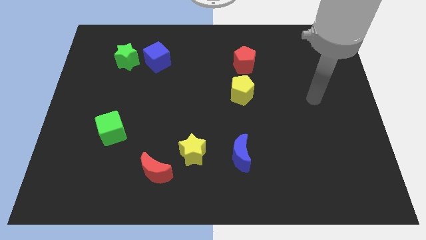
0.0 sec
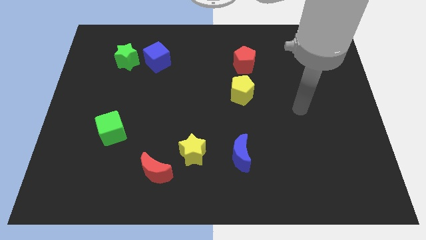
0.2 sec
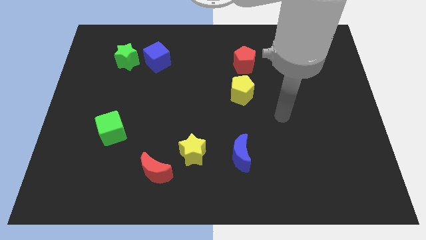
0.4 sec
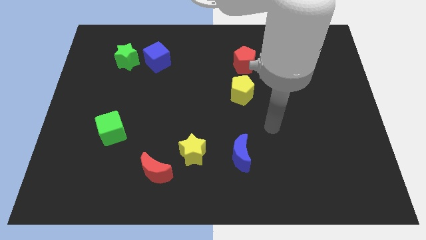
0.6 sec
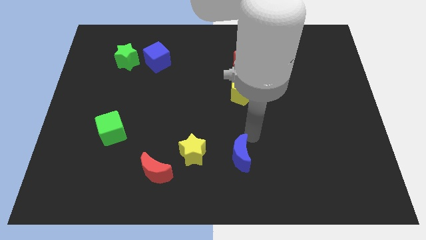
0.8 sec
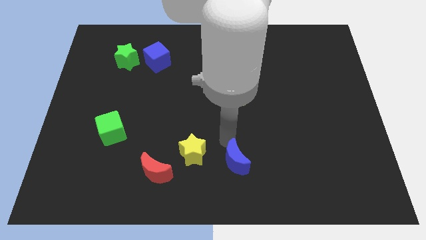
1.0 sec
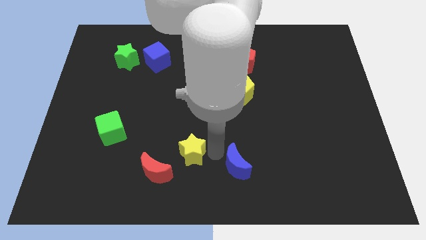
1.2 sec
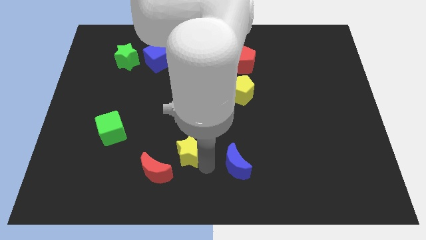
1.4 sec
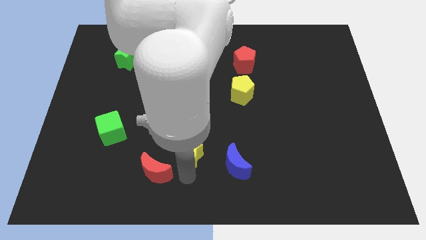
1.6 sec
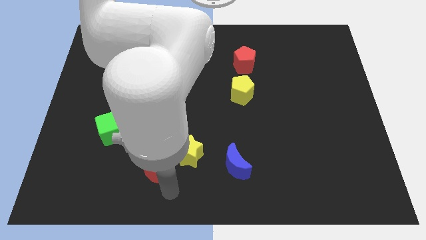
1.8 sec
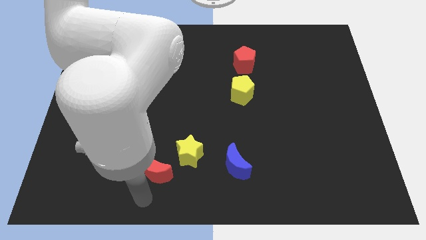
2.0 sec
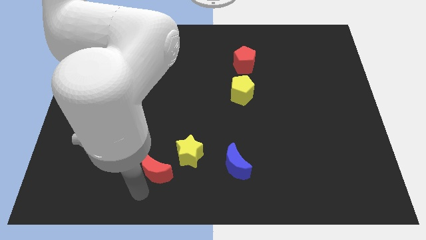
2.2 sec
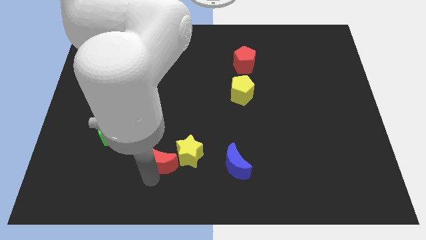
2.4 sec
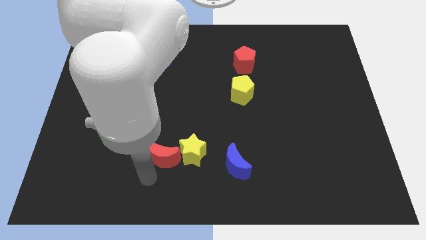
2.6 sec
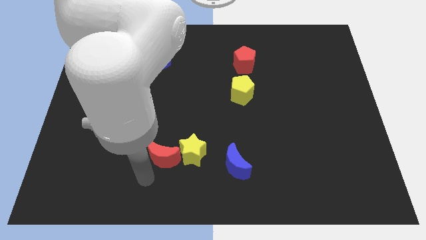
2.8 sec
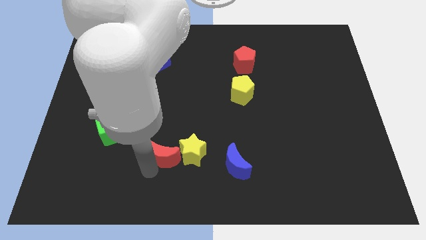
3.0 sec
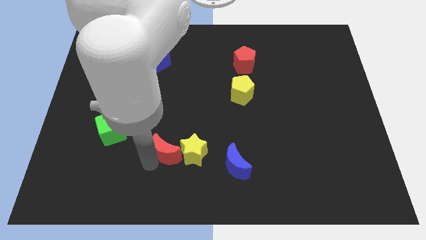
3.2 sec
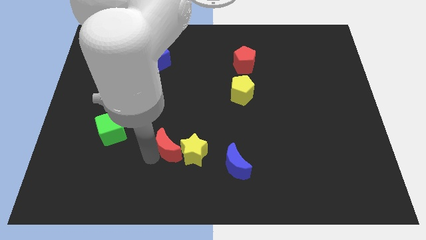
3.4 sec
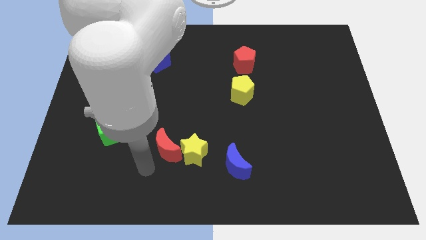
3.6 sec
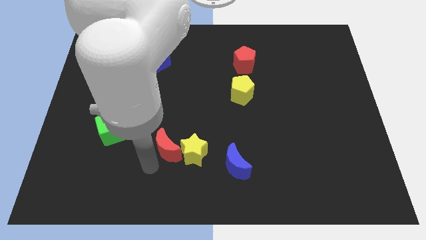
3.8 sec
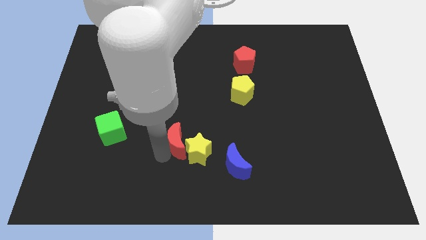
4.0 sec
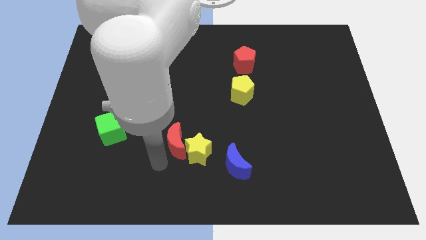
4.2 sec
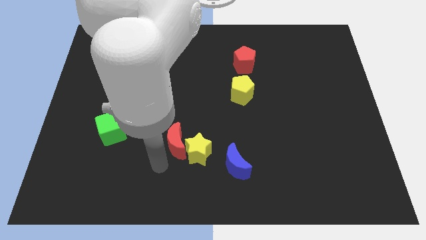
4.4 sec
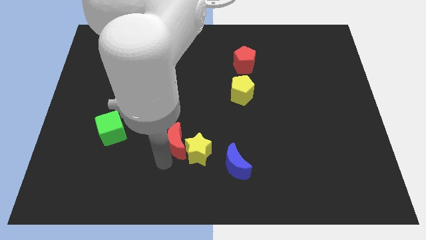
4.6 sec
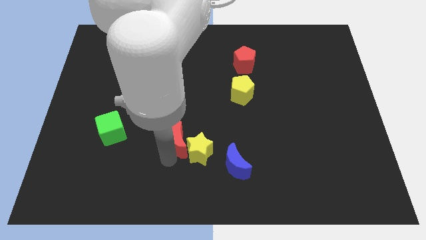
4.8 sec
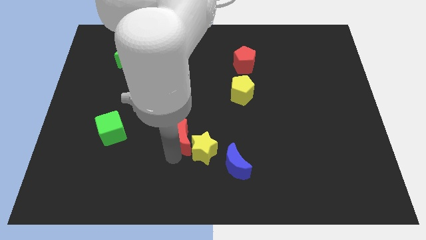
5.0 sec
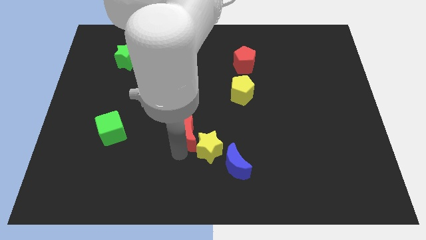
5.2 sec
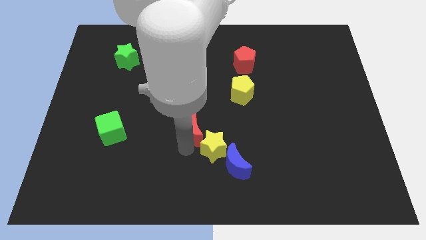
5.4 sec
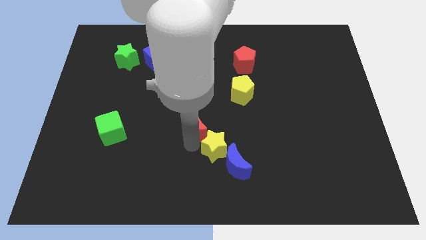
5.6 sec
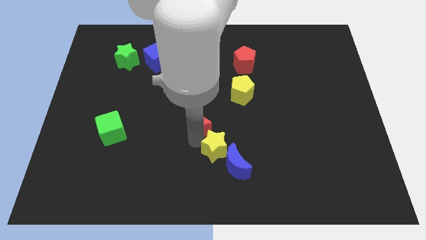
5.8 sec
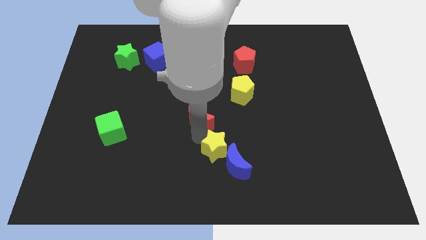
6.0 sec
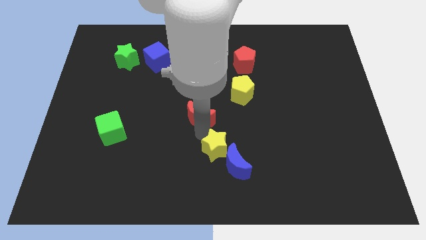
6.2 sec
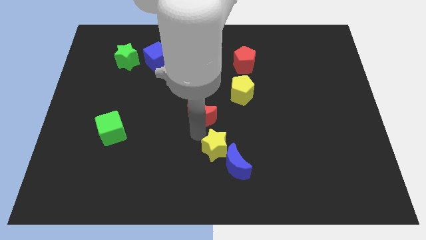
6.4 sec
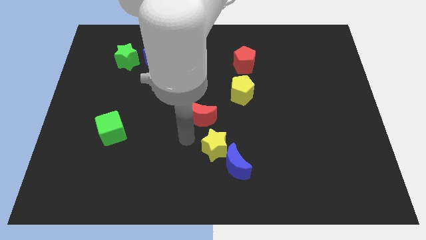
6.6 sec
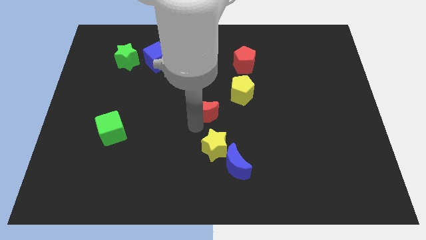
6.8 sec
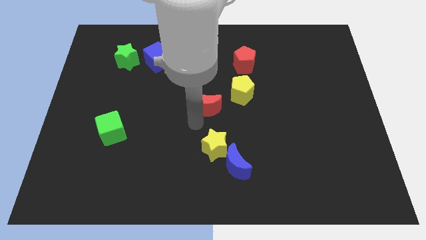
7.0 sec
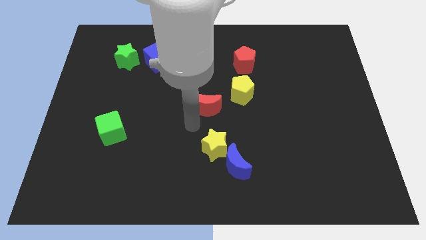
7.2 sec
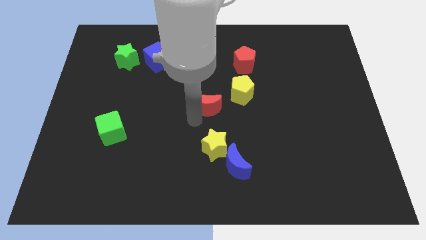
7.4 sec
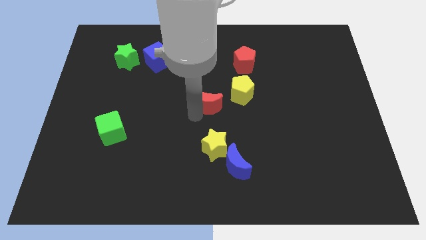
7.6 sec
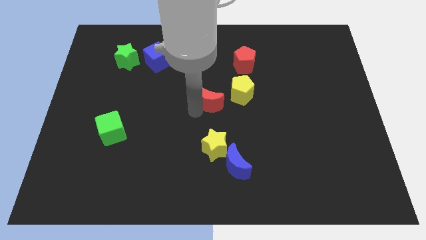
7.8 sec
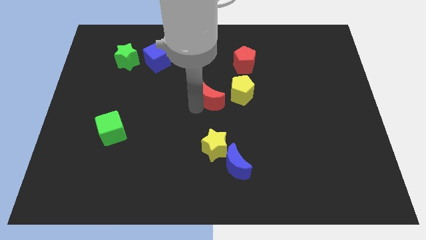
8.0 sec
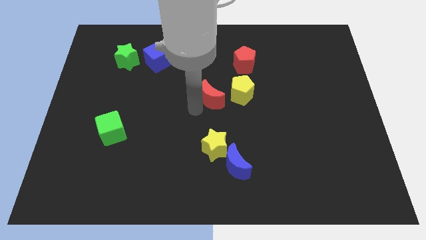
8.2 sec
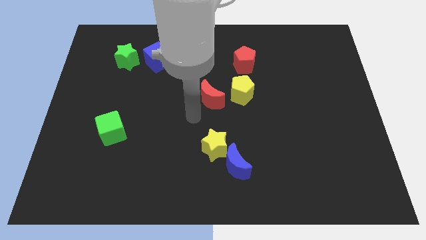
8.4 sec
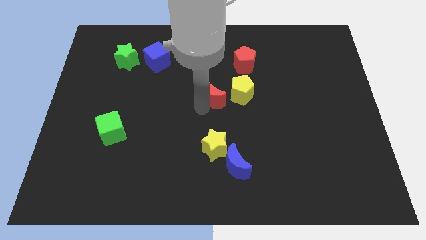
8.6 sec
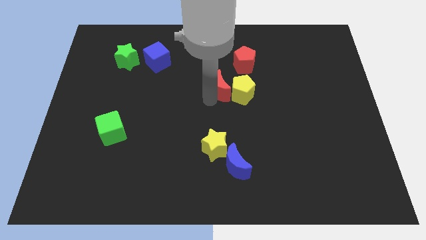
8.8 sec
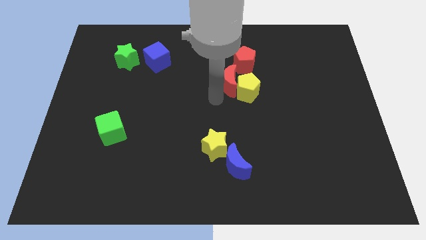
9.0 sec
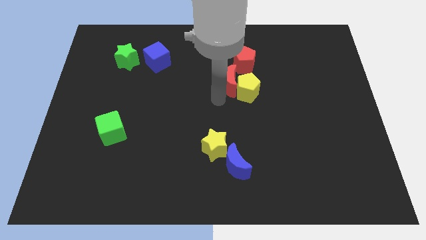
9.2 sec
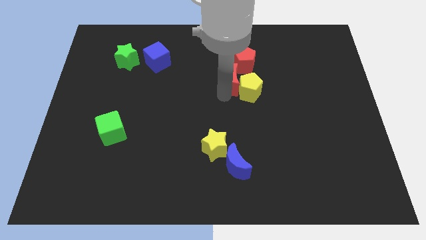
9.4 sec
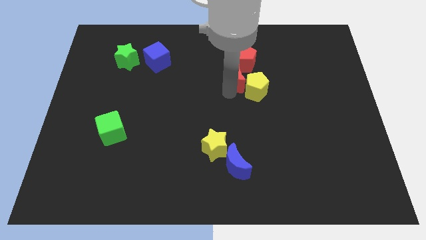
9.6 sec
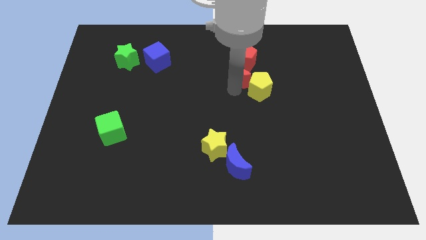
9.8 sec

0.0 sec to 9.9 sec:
move the red moon towards the red pentagon

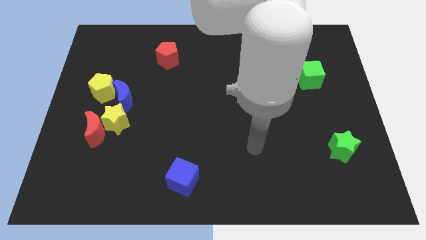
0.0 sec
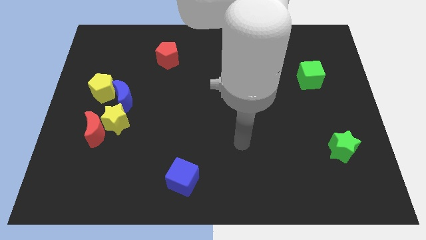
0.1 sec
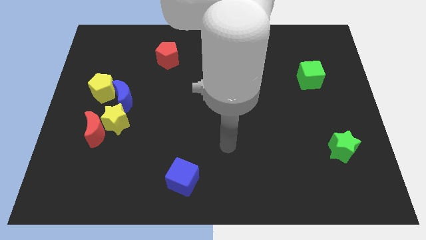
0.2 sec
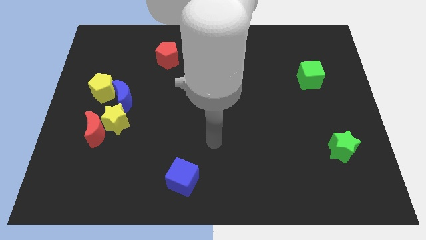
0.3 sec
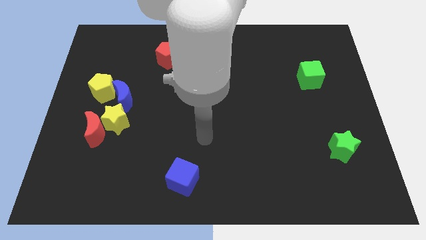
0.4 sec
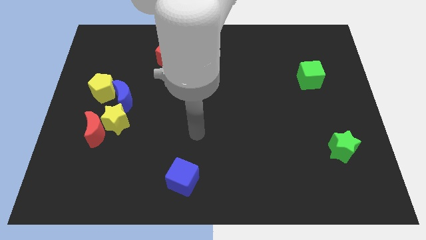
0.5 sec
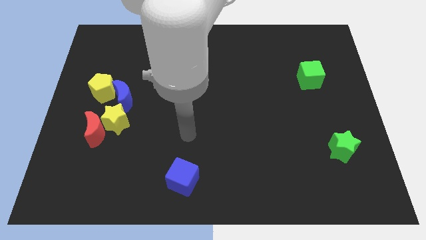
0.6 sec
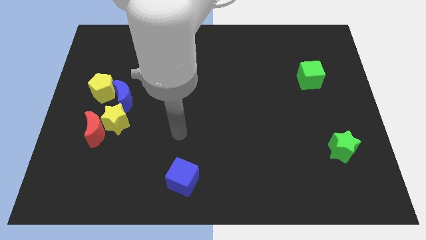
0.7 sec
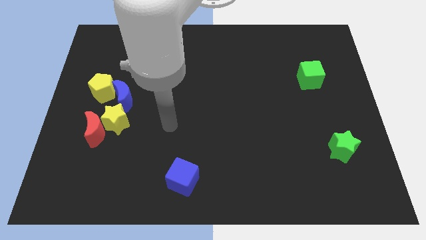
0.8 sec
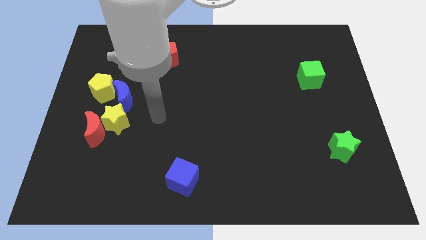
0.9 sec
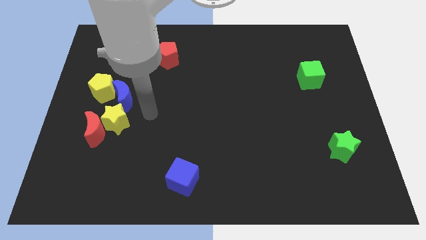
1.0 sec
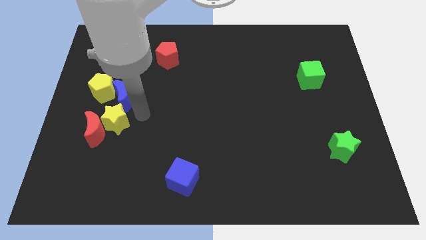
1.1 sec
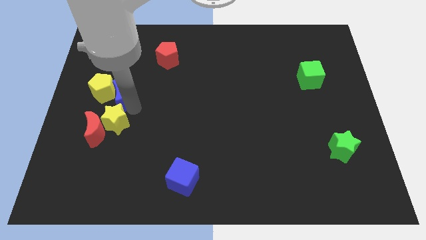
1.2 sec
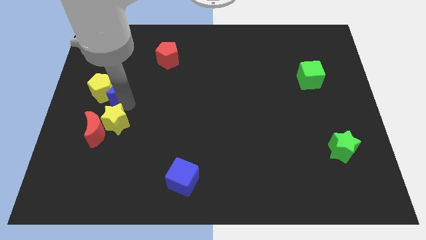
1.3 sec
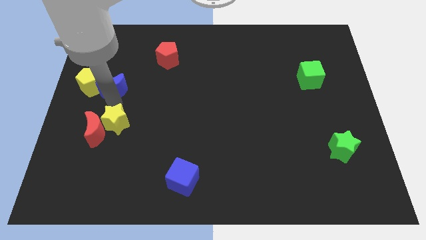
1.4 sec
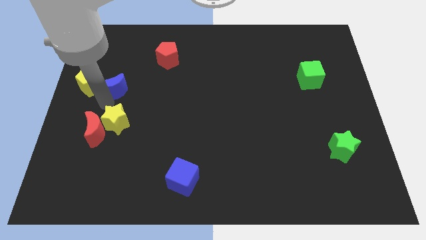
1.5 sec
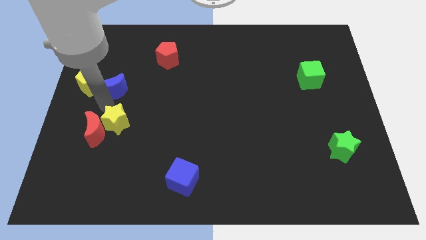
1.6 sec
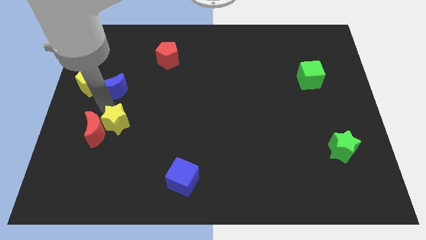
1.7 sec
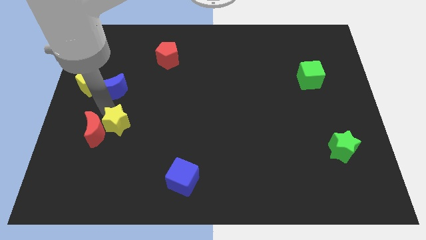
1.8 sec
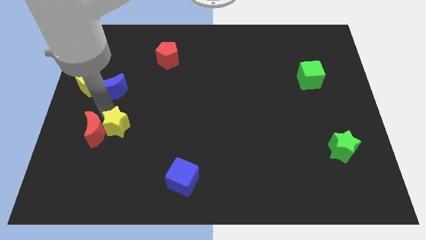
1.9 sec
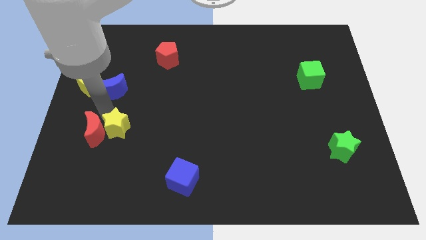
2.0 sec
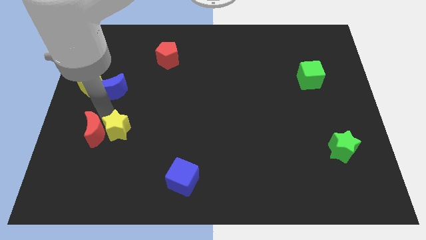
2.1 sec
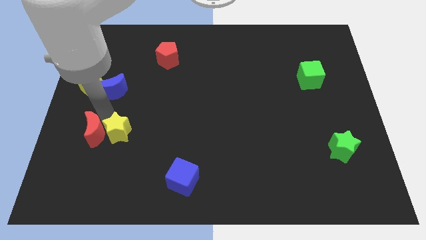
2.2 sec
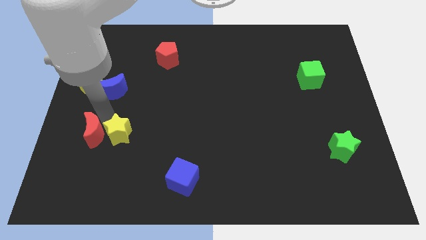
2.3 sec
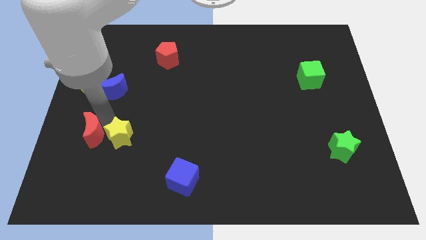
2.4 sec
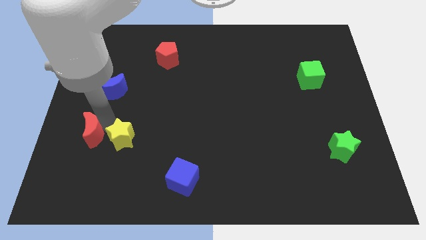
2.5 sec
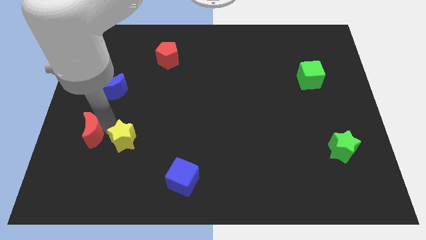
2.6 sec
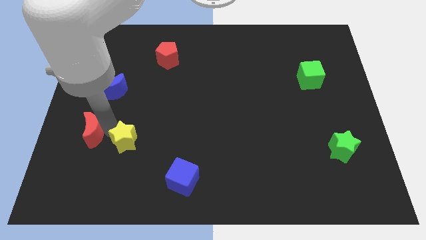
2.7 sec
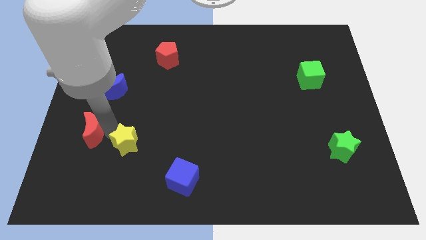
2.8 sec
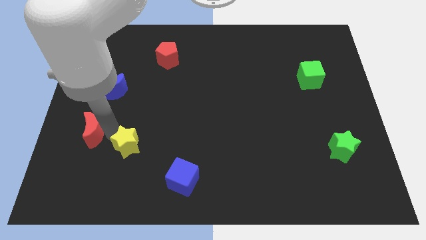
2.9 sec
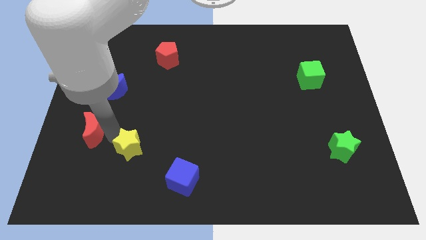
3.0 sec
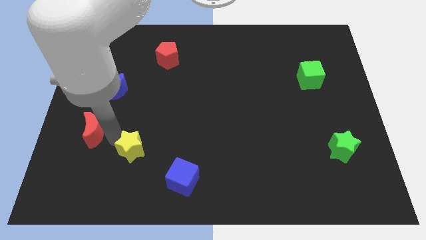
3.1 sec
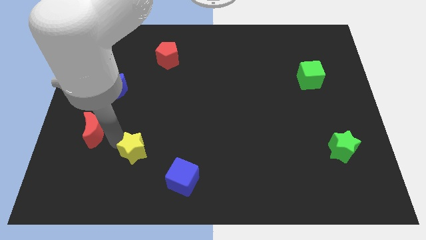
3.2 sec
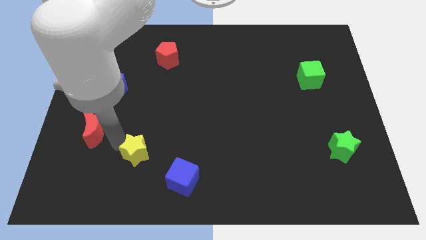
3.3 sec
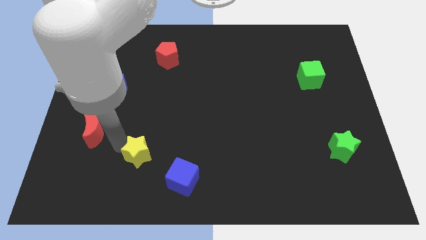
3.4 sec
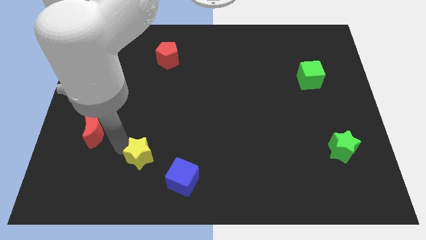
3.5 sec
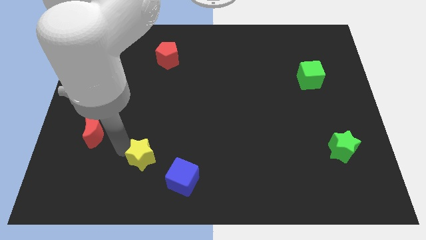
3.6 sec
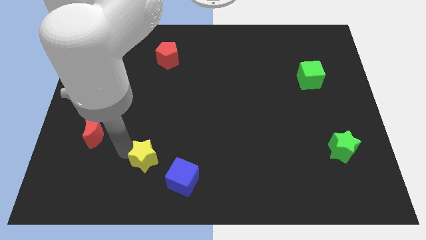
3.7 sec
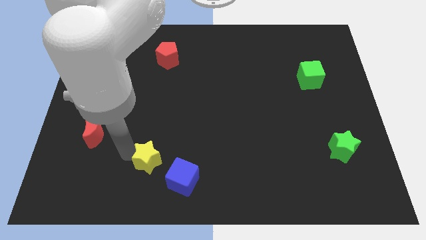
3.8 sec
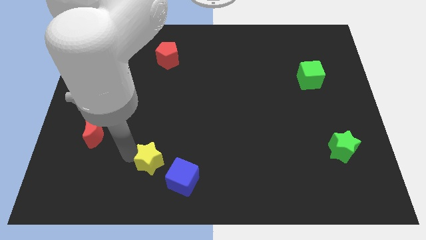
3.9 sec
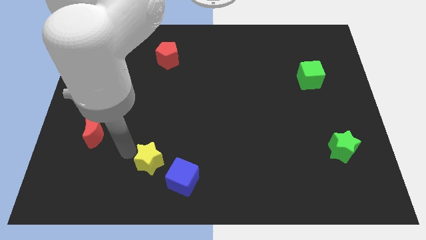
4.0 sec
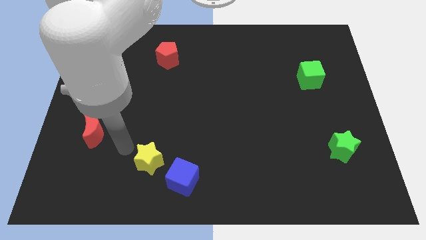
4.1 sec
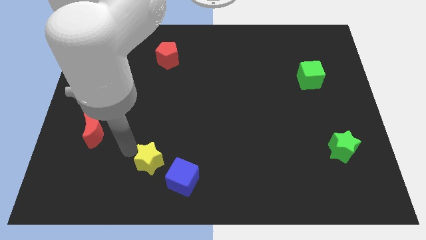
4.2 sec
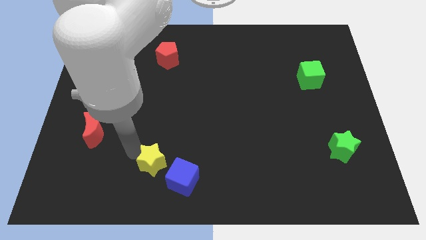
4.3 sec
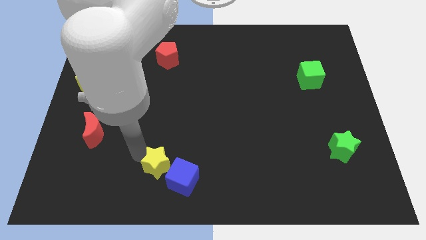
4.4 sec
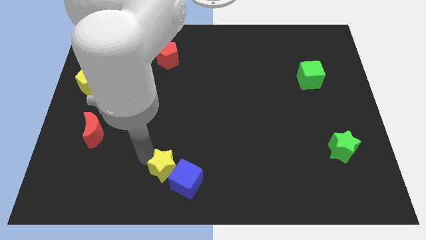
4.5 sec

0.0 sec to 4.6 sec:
slide the yellow star next to the blue cube
